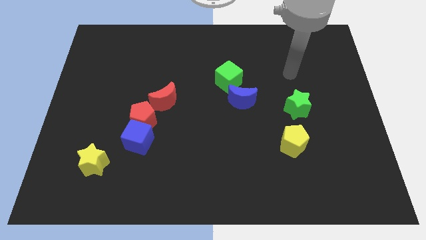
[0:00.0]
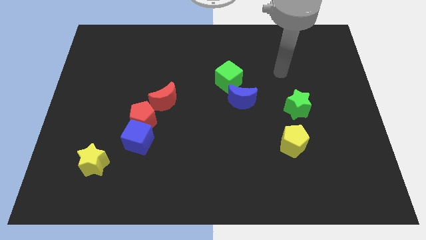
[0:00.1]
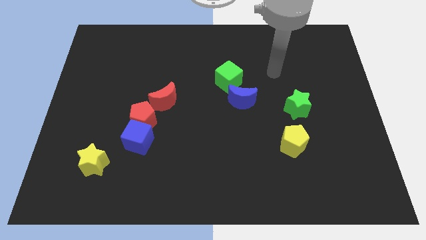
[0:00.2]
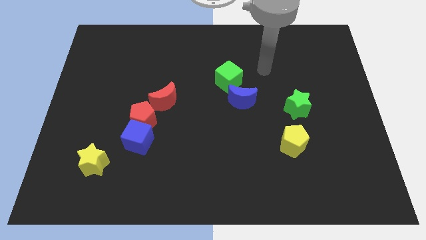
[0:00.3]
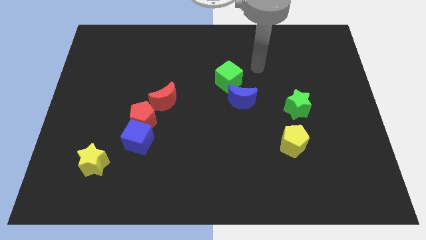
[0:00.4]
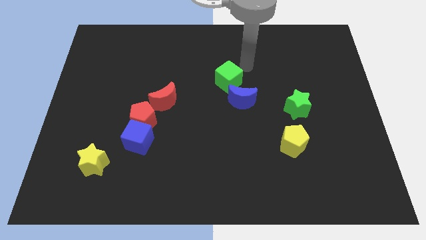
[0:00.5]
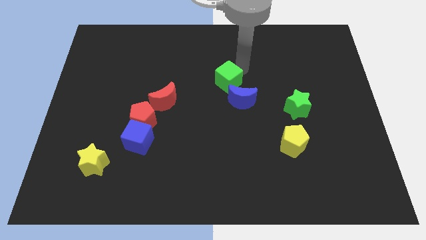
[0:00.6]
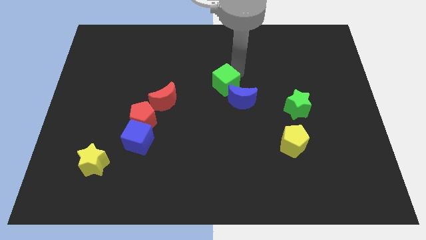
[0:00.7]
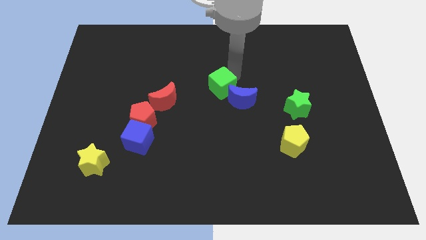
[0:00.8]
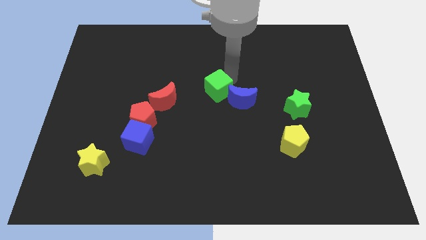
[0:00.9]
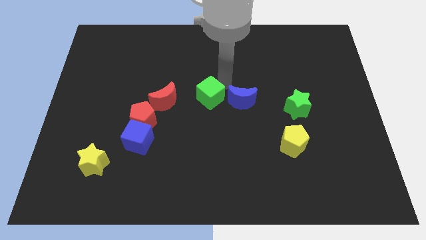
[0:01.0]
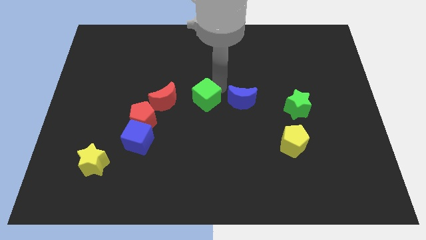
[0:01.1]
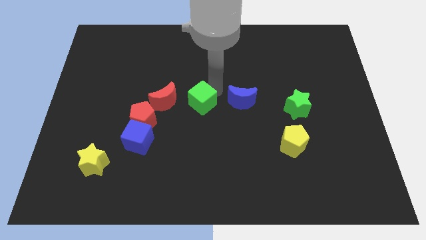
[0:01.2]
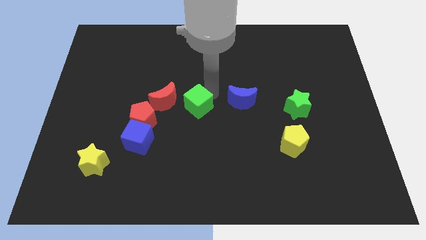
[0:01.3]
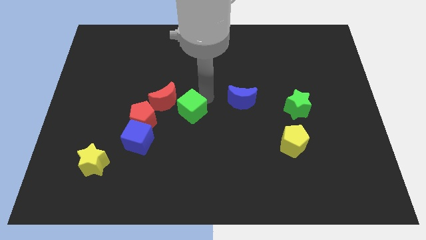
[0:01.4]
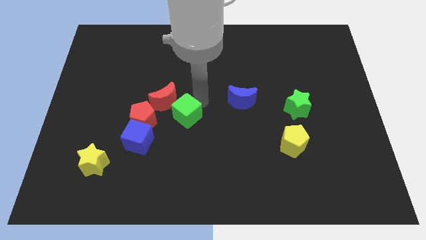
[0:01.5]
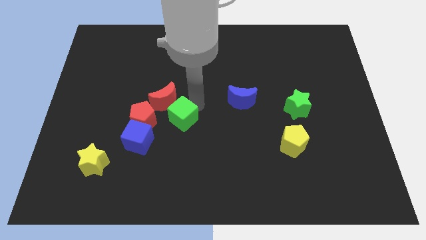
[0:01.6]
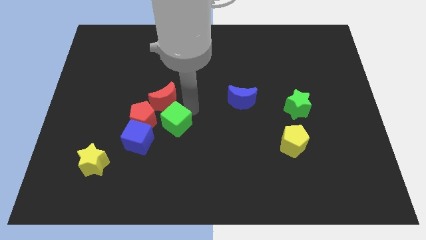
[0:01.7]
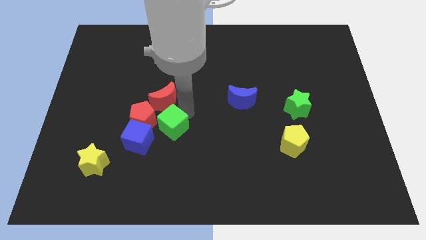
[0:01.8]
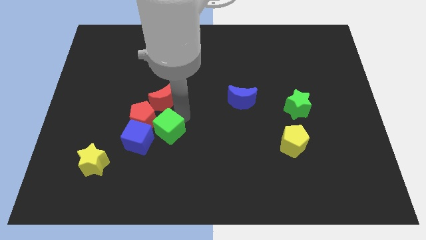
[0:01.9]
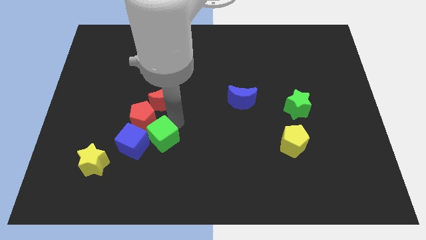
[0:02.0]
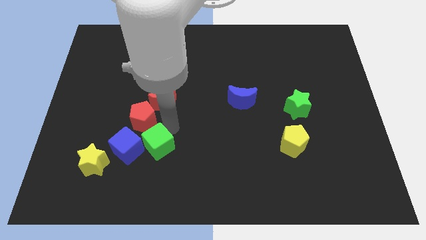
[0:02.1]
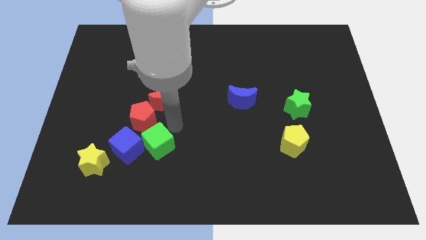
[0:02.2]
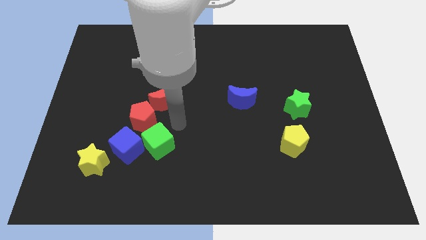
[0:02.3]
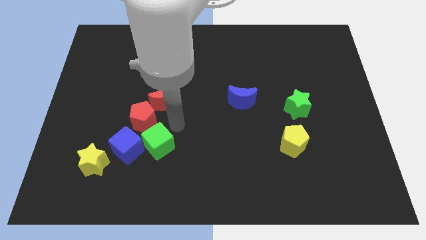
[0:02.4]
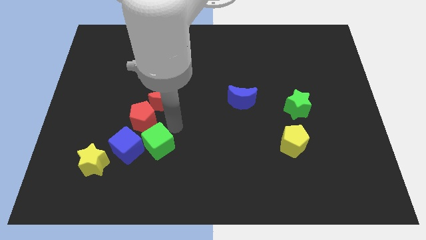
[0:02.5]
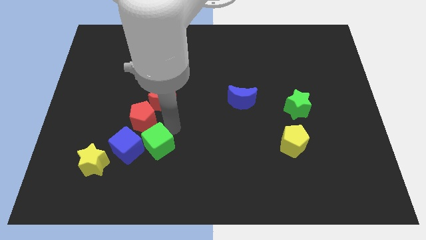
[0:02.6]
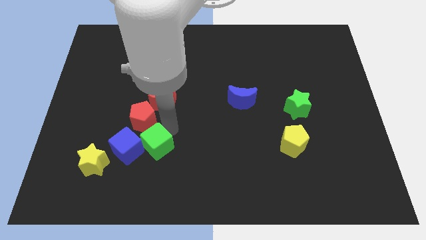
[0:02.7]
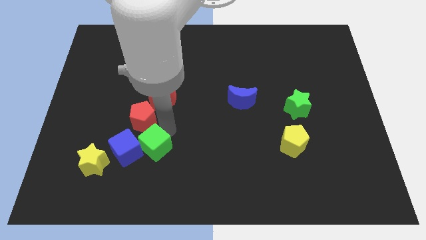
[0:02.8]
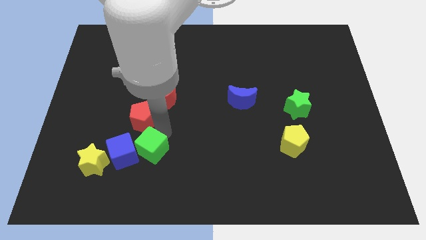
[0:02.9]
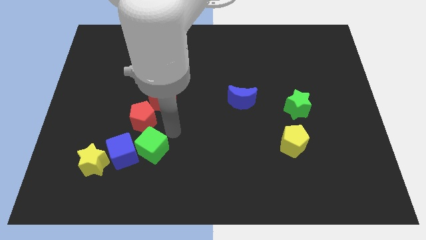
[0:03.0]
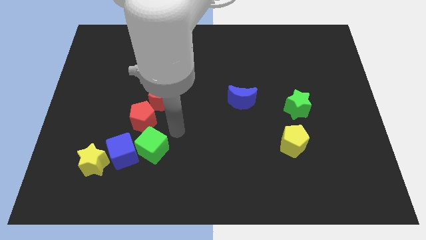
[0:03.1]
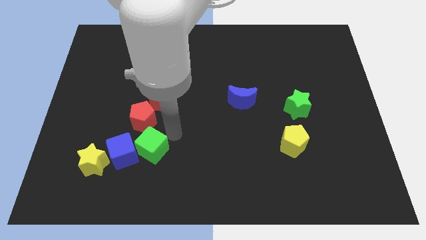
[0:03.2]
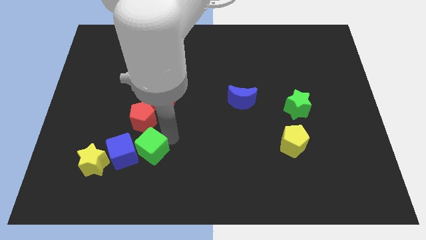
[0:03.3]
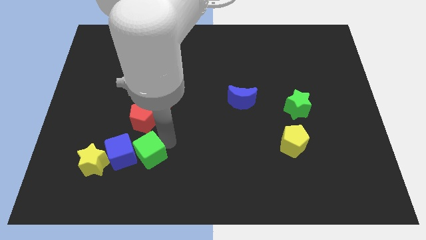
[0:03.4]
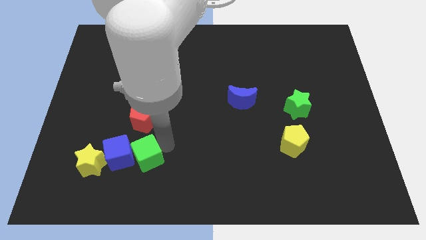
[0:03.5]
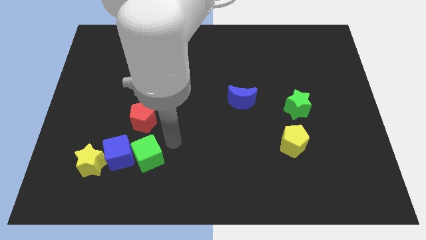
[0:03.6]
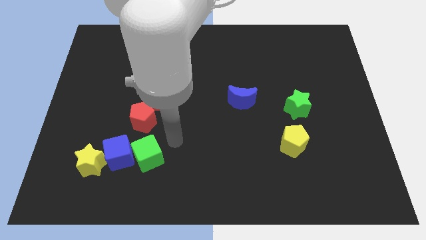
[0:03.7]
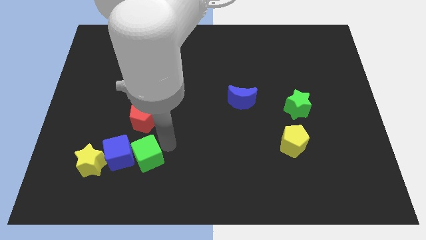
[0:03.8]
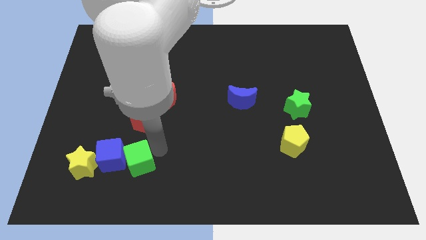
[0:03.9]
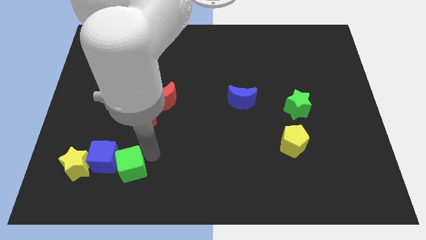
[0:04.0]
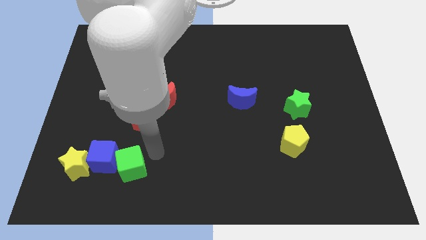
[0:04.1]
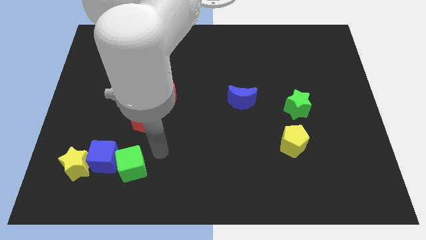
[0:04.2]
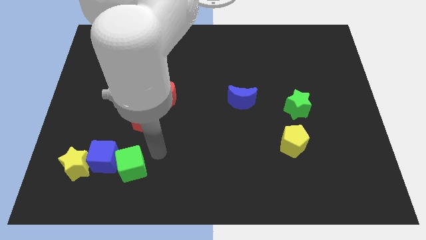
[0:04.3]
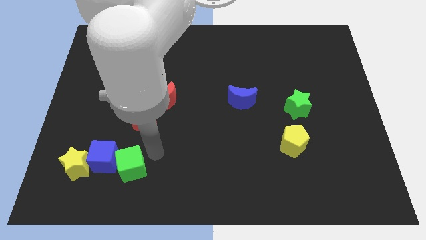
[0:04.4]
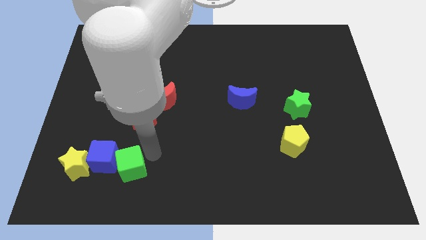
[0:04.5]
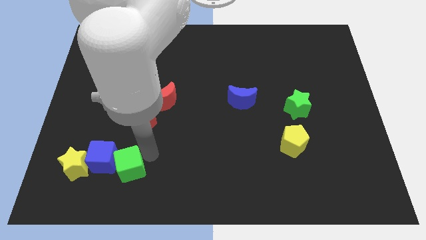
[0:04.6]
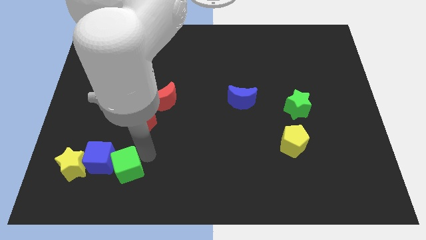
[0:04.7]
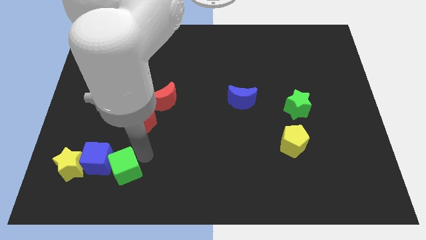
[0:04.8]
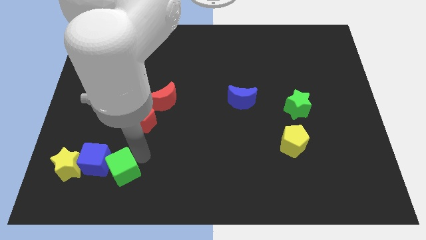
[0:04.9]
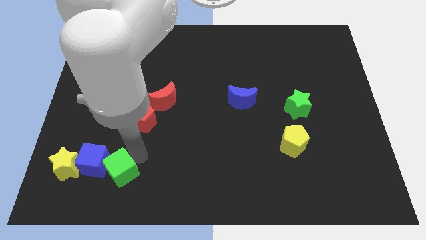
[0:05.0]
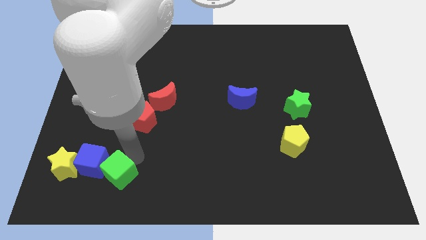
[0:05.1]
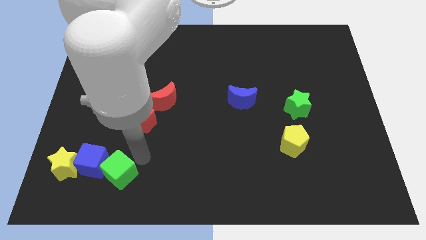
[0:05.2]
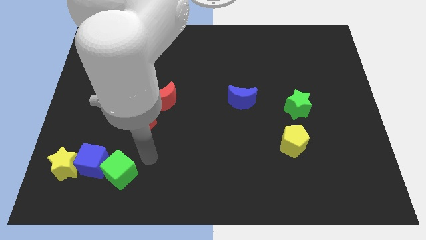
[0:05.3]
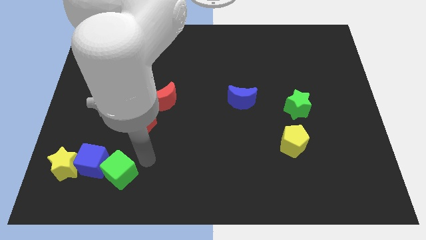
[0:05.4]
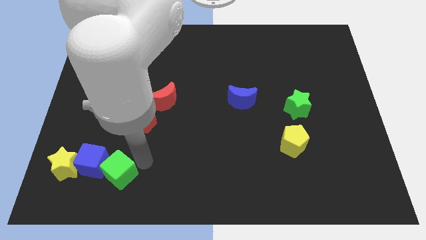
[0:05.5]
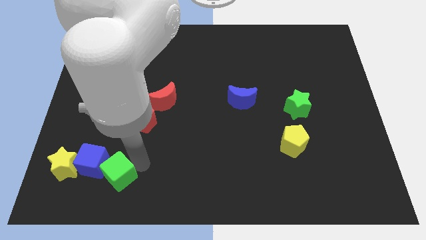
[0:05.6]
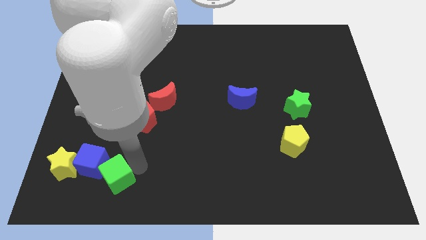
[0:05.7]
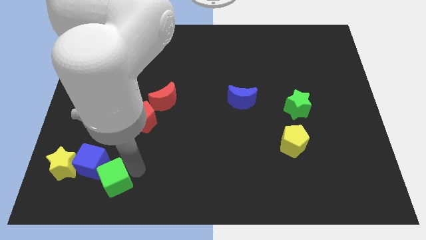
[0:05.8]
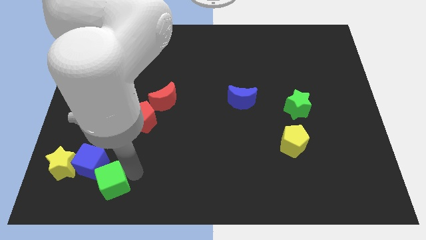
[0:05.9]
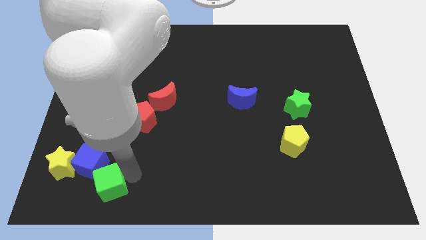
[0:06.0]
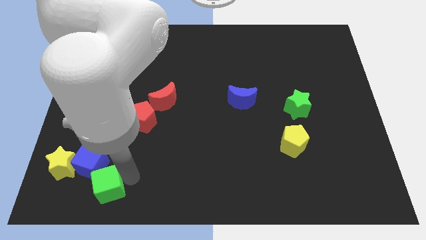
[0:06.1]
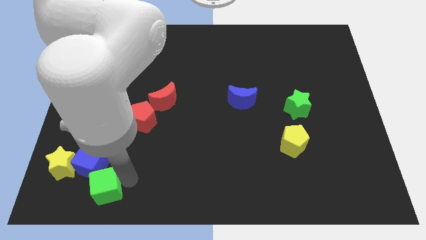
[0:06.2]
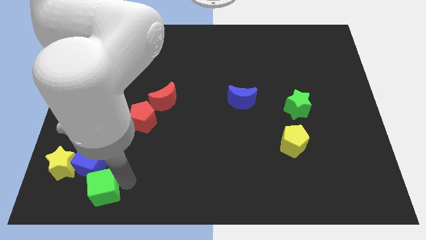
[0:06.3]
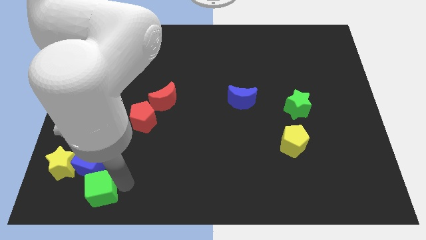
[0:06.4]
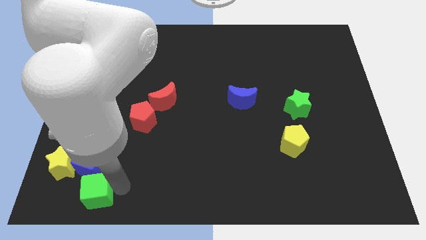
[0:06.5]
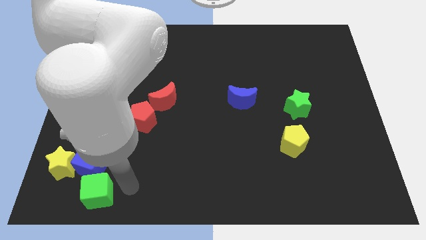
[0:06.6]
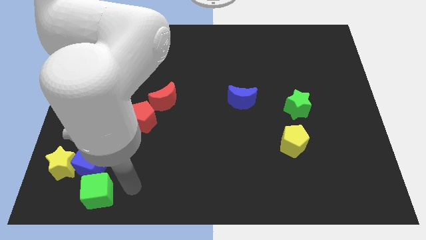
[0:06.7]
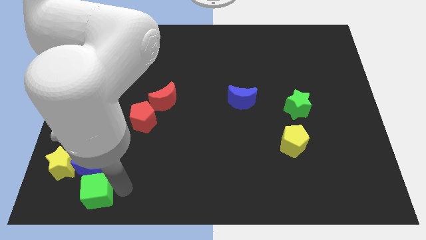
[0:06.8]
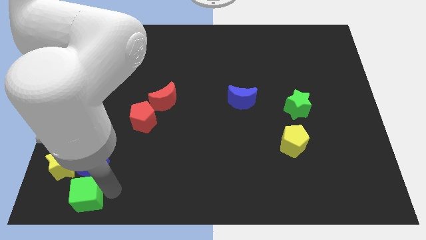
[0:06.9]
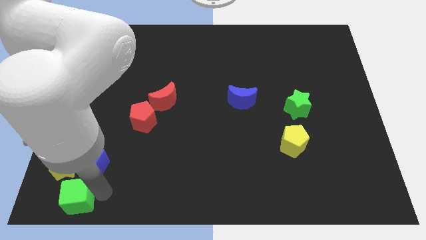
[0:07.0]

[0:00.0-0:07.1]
move the green cube to the bottom left of the board
